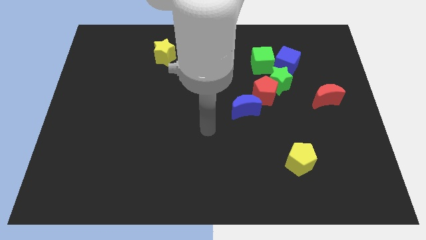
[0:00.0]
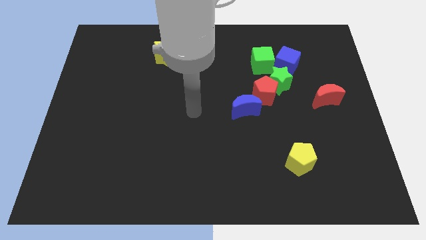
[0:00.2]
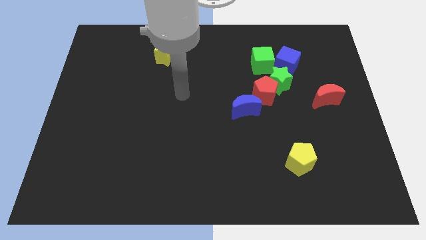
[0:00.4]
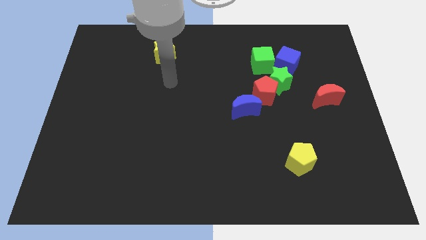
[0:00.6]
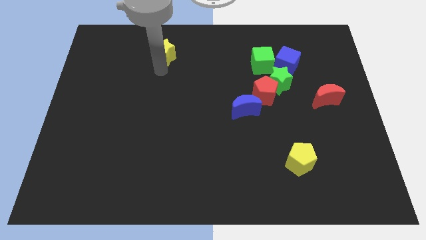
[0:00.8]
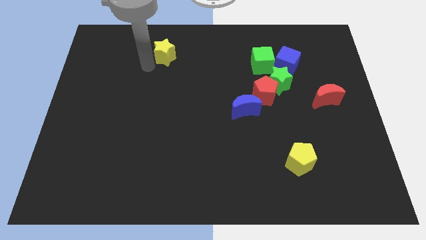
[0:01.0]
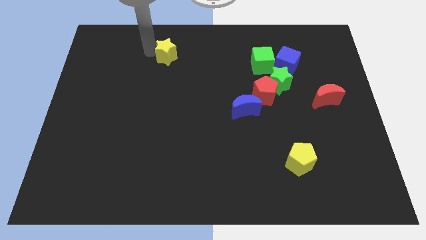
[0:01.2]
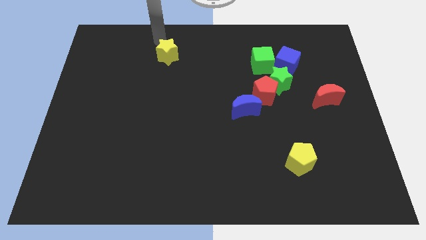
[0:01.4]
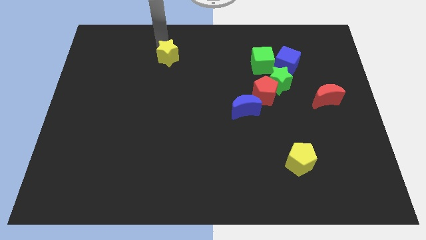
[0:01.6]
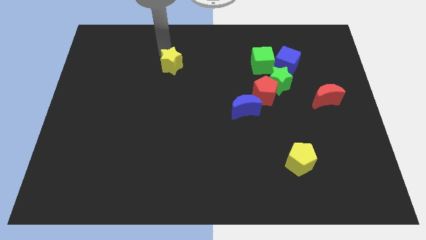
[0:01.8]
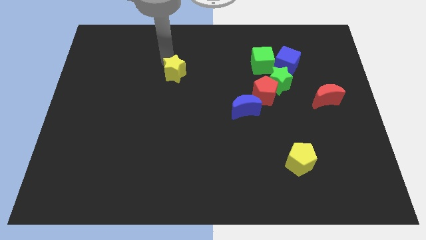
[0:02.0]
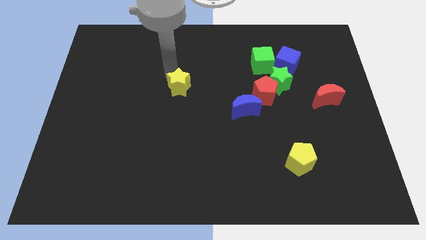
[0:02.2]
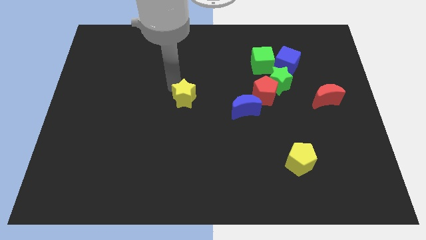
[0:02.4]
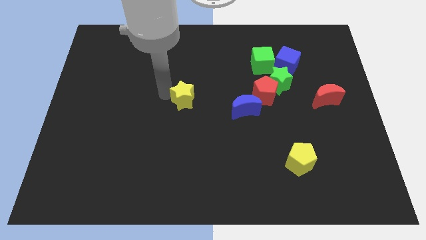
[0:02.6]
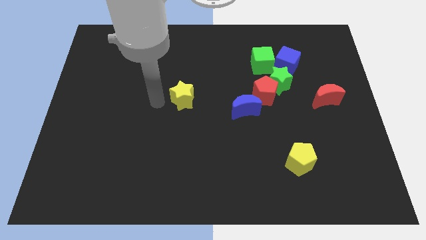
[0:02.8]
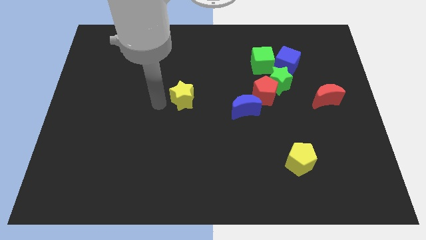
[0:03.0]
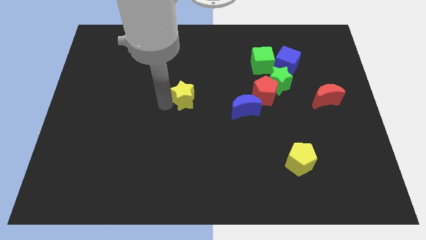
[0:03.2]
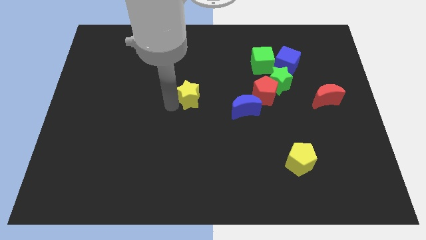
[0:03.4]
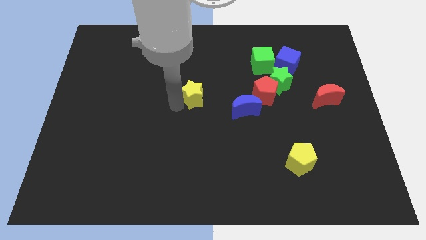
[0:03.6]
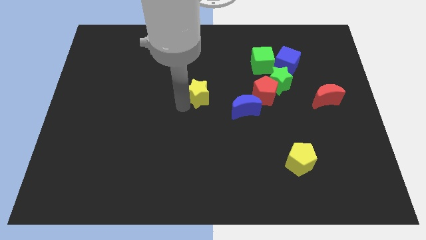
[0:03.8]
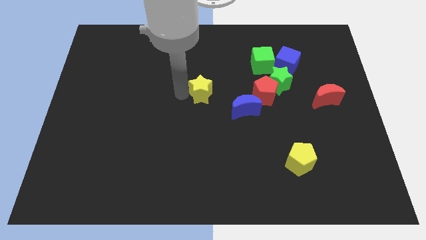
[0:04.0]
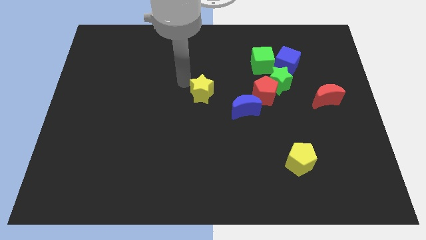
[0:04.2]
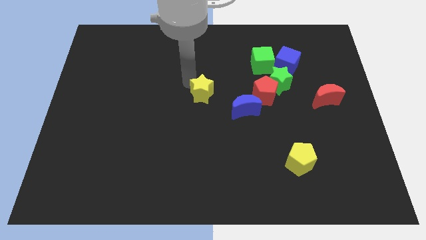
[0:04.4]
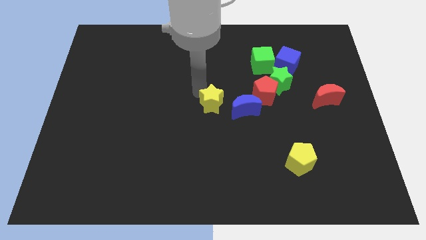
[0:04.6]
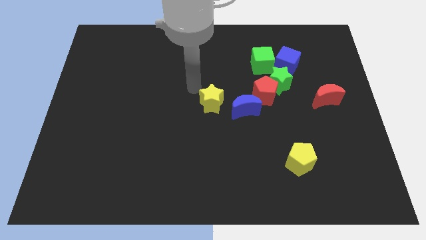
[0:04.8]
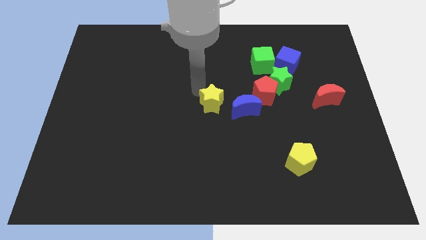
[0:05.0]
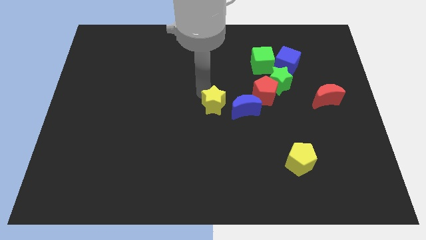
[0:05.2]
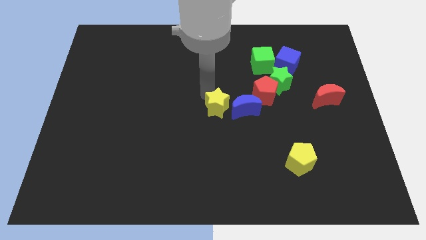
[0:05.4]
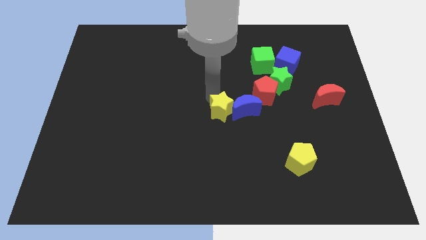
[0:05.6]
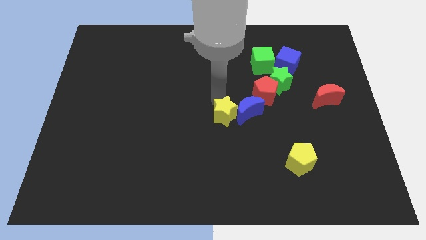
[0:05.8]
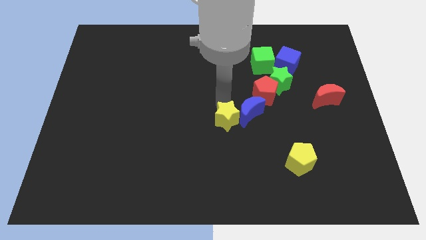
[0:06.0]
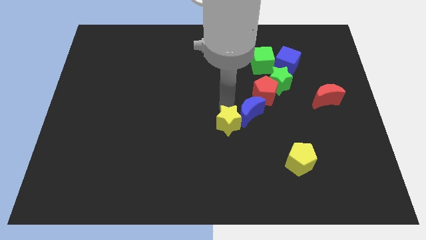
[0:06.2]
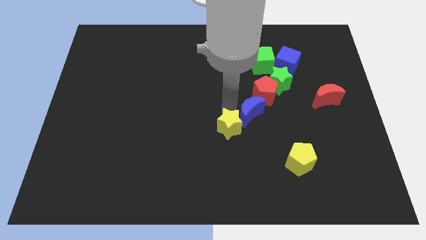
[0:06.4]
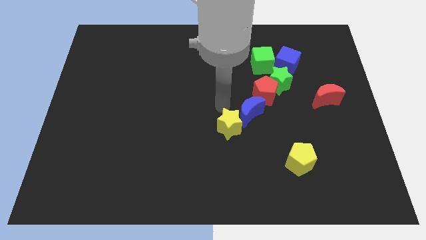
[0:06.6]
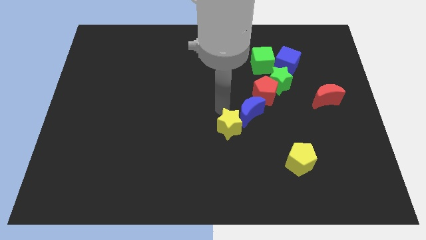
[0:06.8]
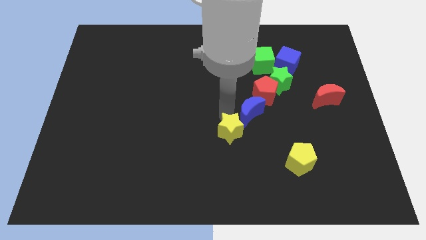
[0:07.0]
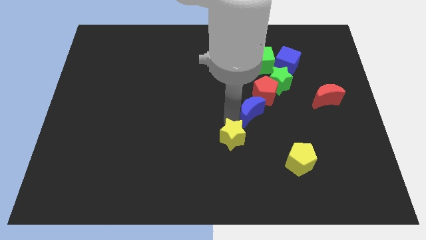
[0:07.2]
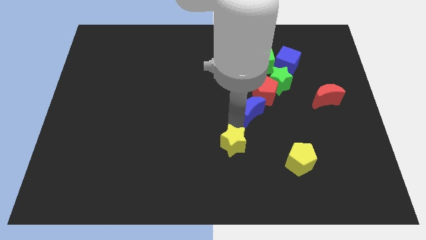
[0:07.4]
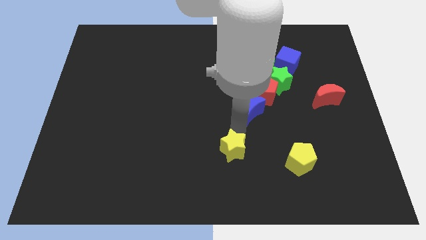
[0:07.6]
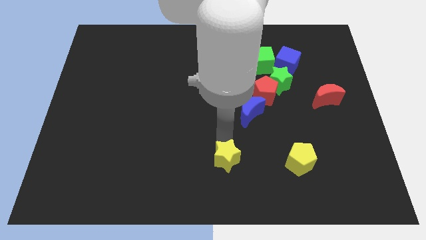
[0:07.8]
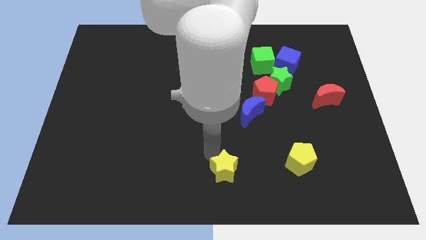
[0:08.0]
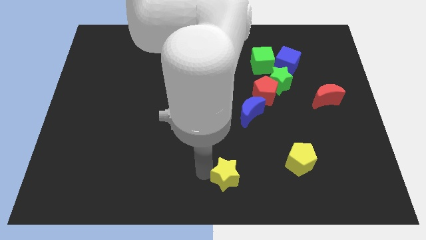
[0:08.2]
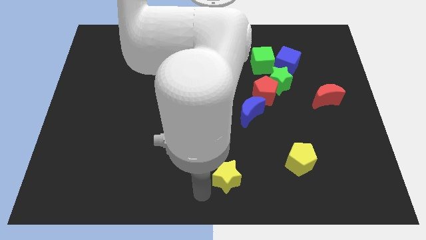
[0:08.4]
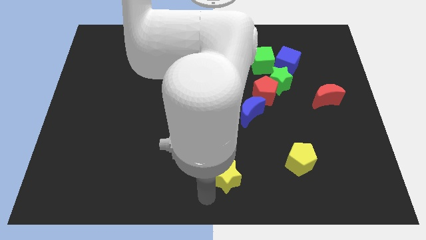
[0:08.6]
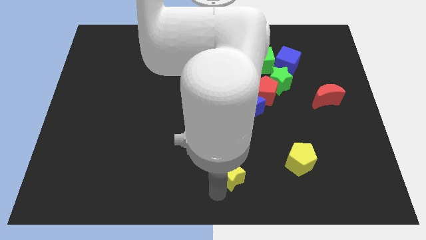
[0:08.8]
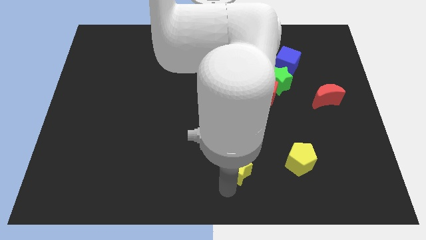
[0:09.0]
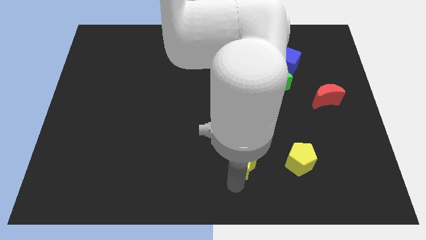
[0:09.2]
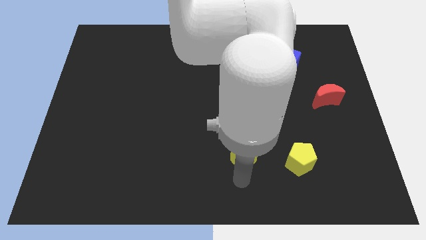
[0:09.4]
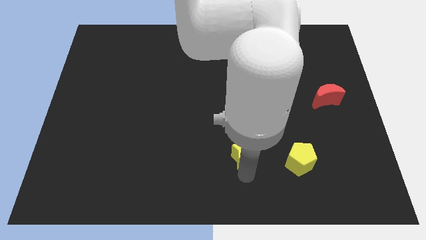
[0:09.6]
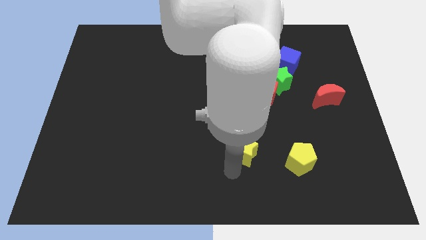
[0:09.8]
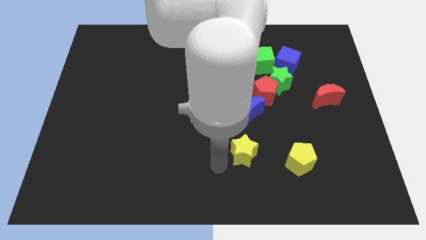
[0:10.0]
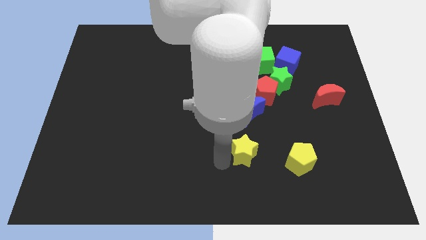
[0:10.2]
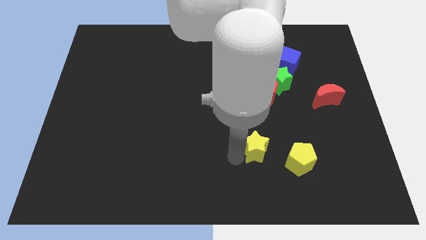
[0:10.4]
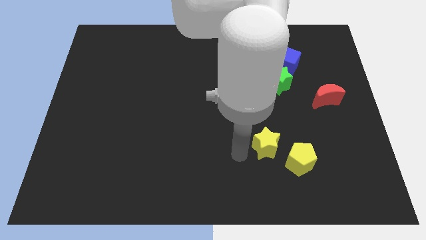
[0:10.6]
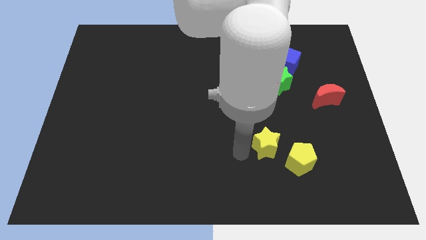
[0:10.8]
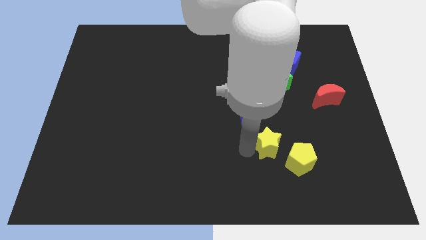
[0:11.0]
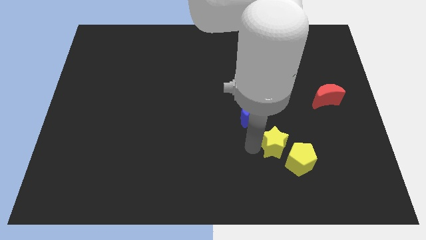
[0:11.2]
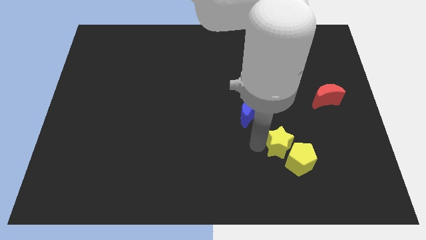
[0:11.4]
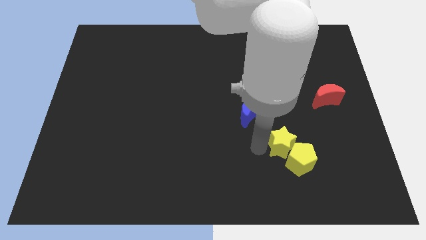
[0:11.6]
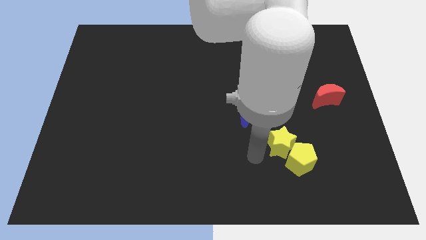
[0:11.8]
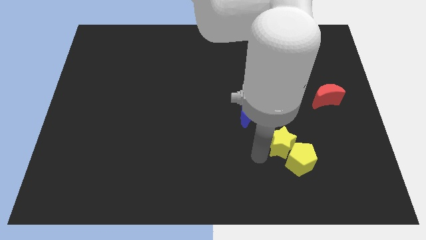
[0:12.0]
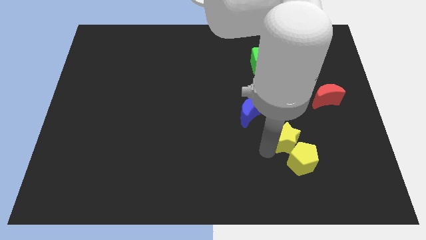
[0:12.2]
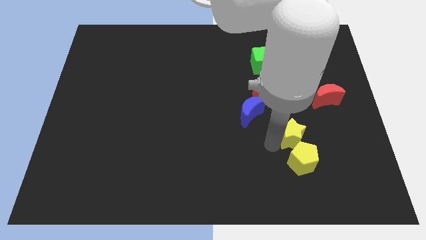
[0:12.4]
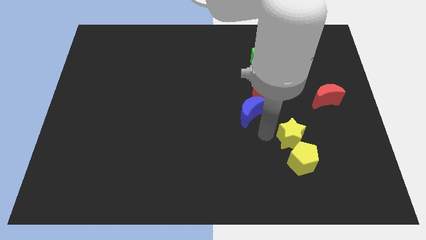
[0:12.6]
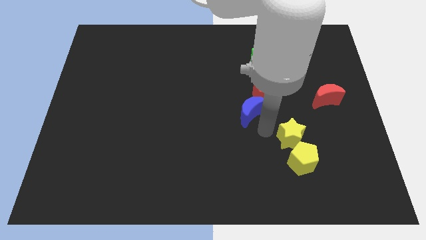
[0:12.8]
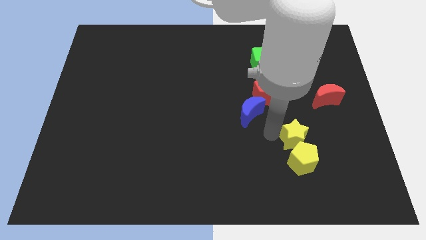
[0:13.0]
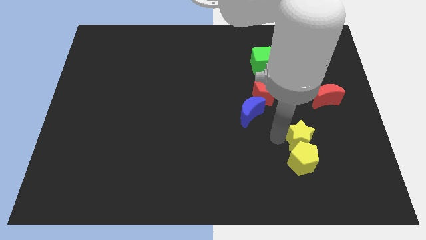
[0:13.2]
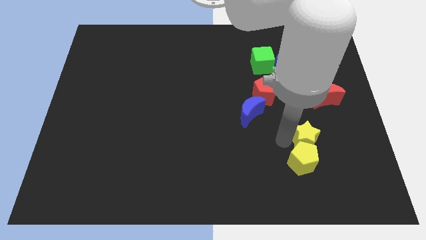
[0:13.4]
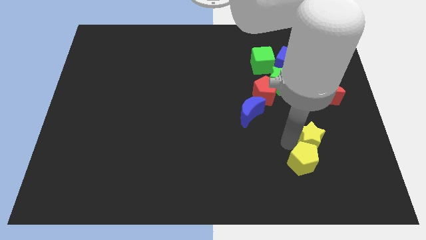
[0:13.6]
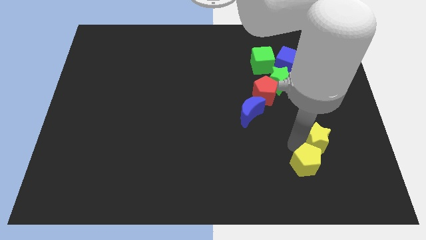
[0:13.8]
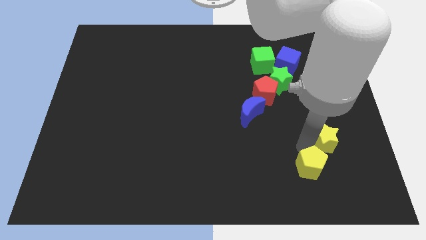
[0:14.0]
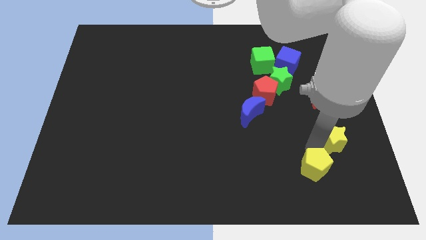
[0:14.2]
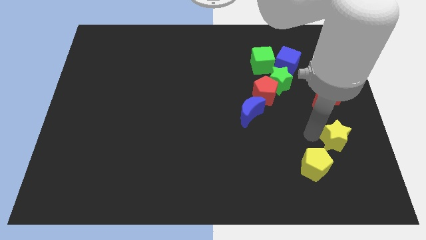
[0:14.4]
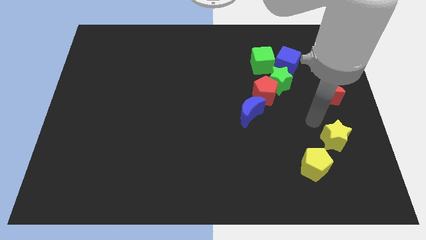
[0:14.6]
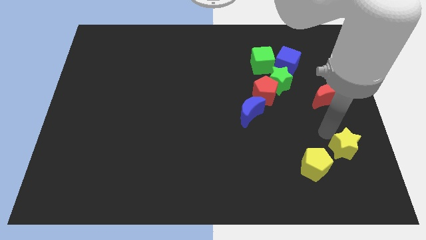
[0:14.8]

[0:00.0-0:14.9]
move the yellow star to the right of the yellow pentagon
